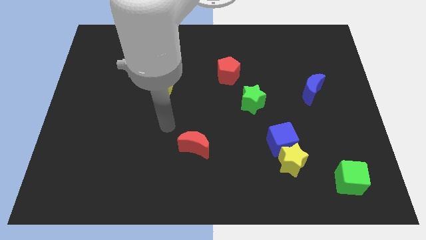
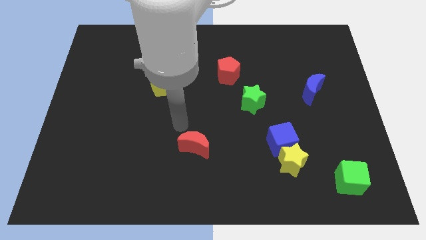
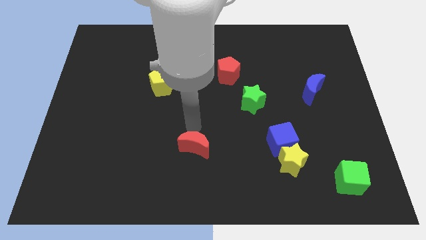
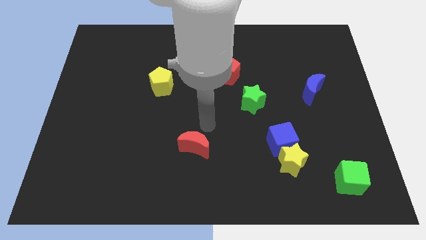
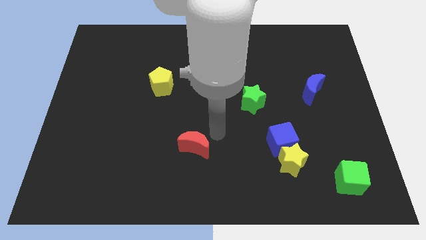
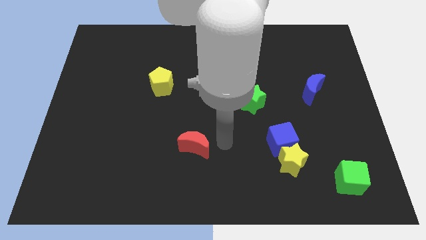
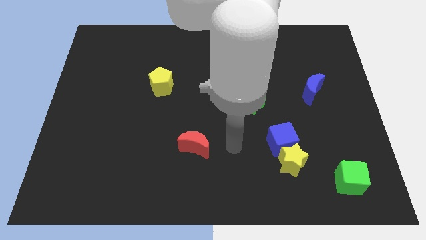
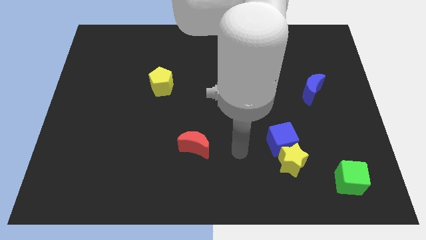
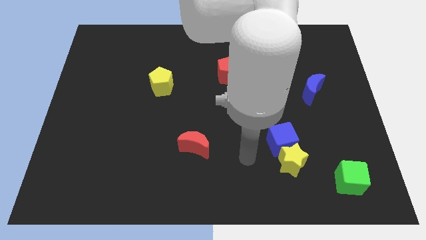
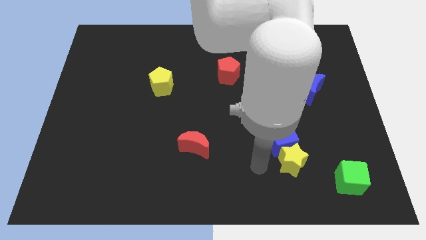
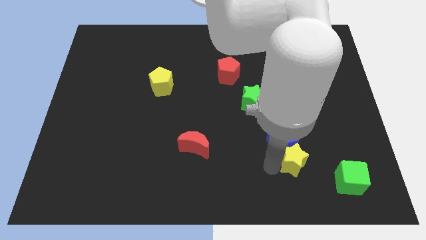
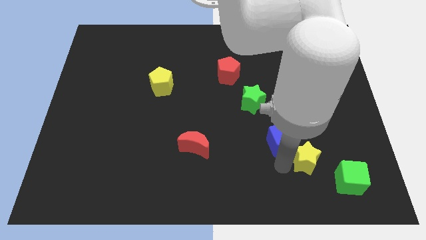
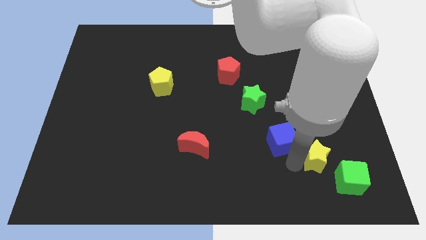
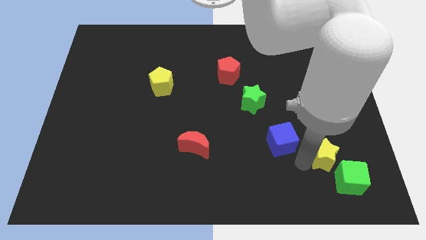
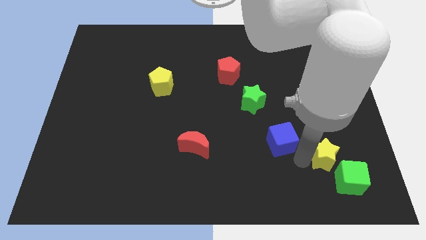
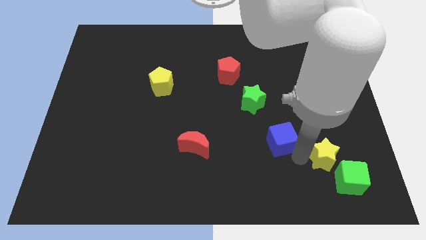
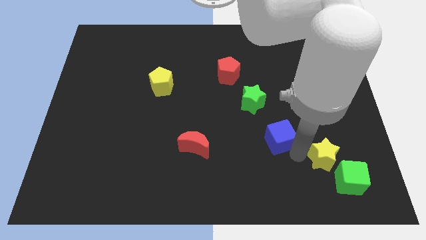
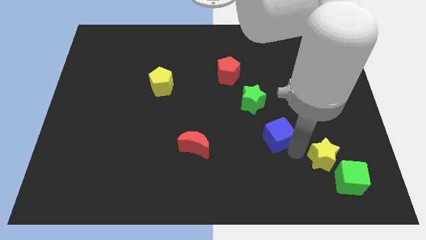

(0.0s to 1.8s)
move the blue cube away from the yellow star

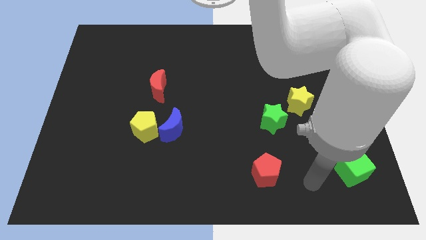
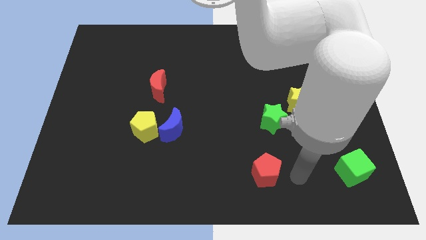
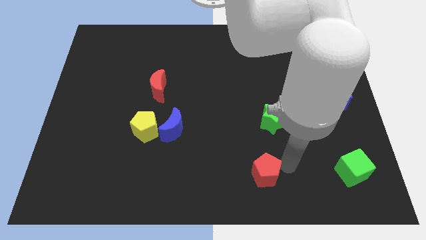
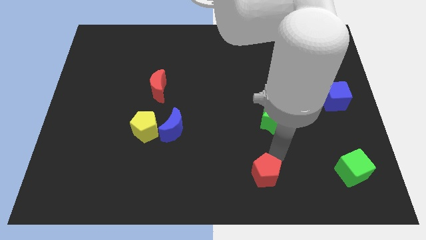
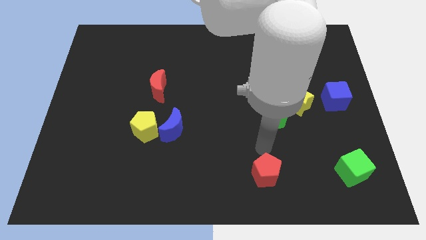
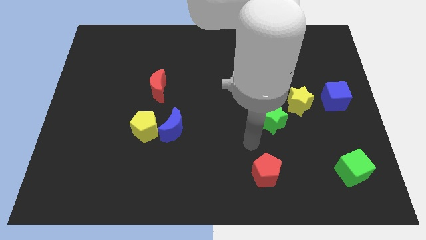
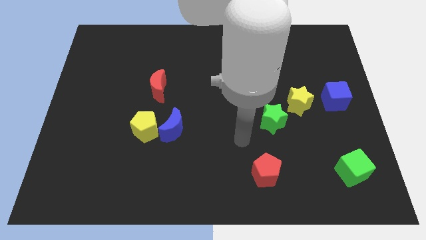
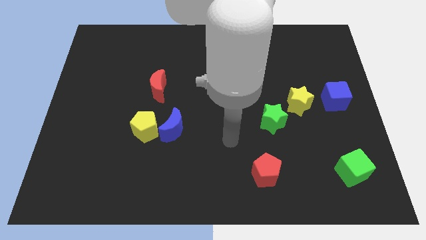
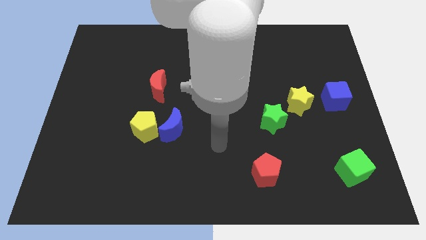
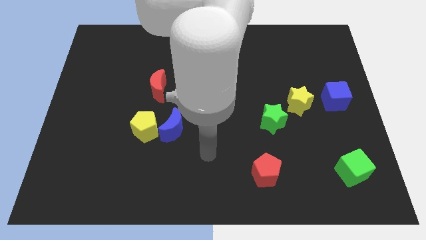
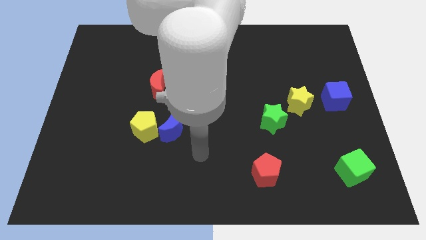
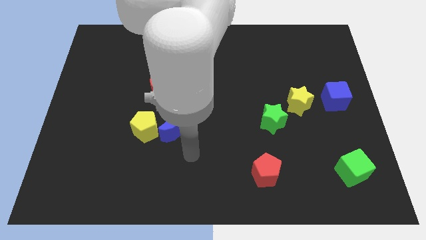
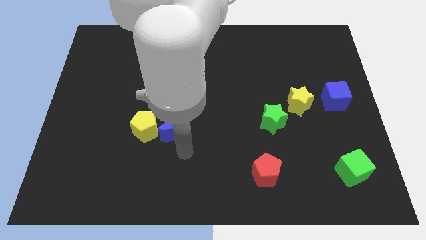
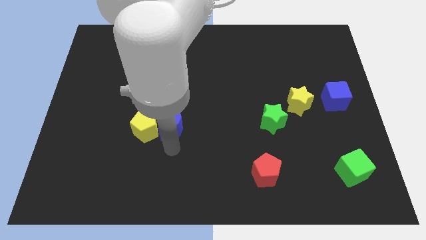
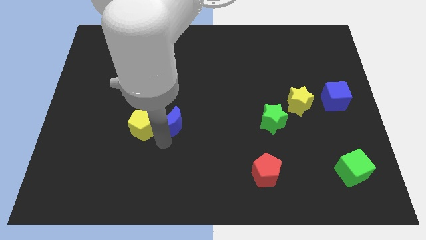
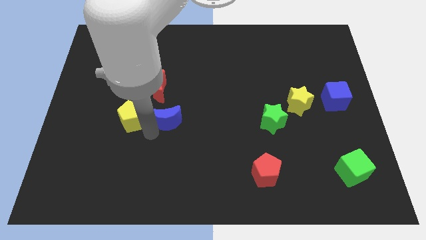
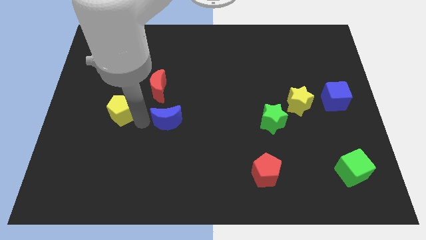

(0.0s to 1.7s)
move the blue moon away from the yellow pentagon

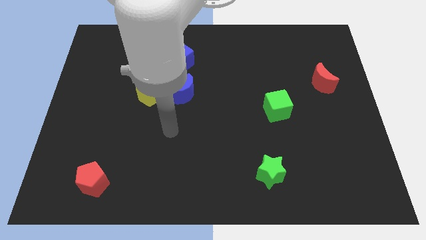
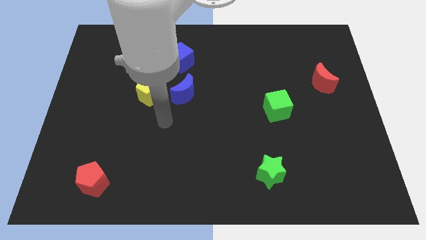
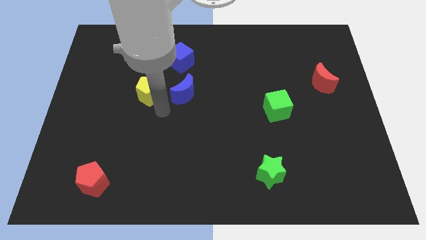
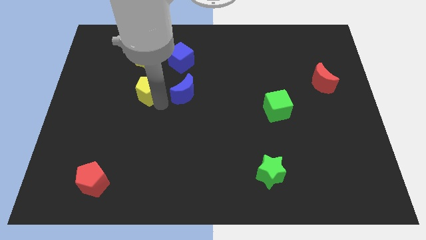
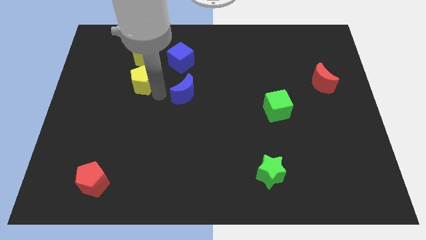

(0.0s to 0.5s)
separate the blue moon from the yellow pentagon

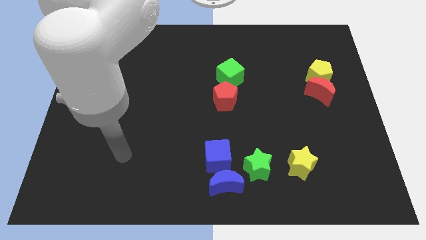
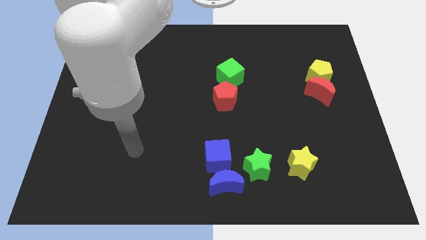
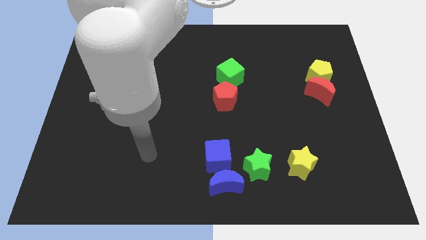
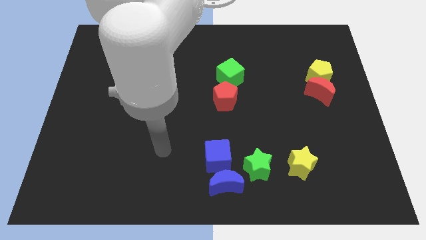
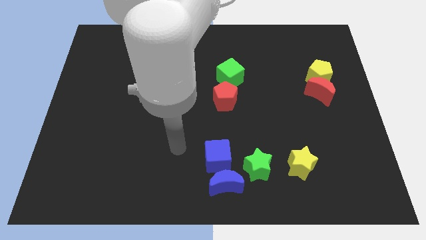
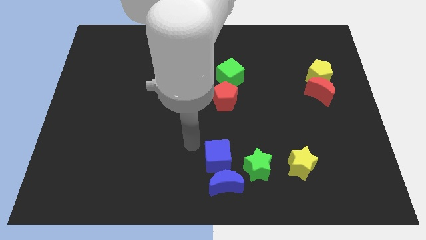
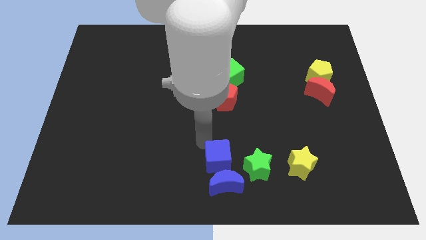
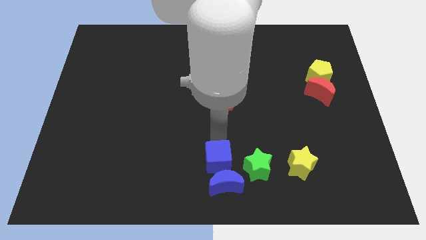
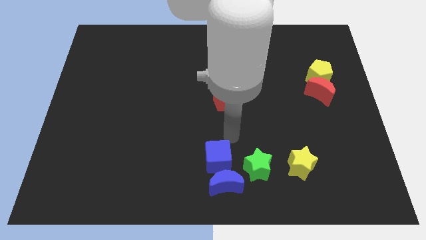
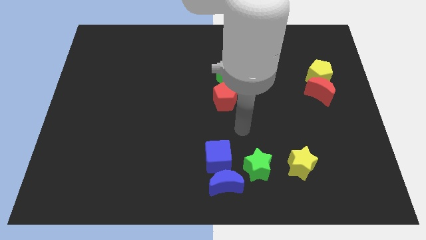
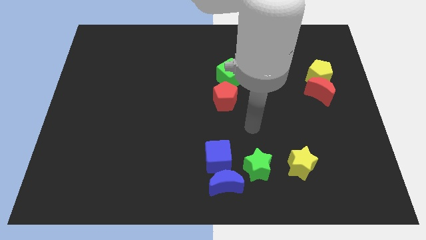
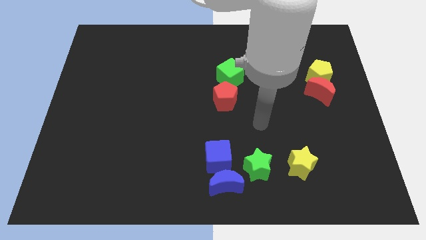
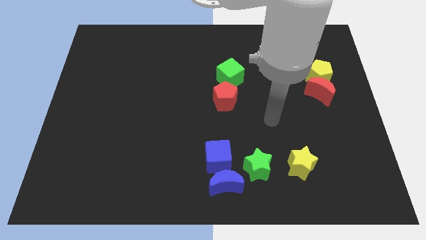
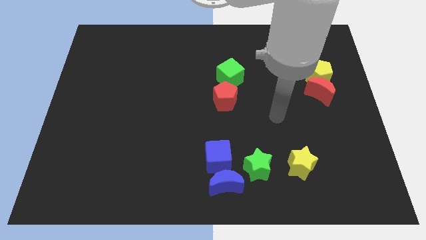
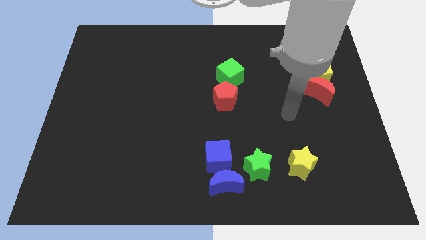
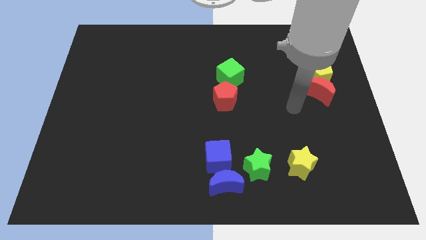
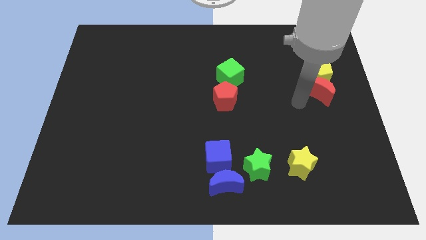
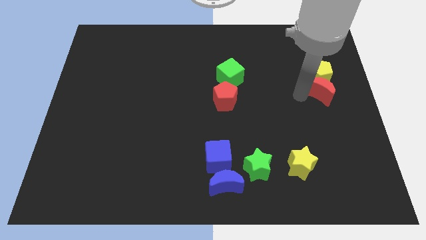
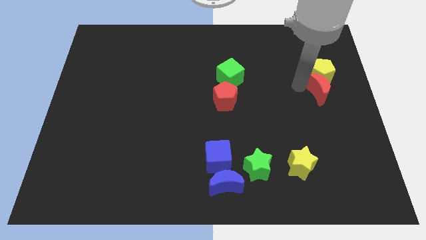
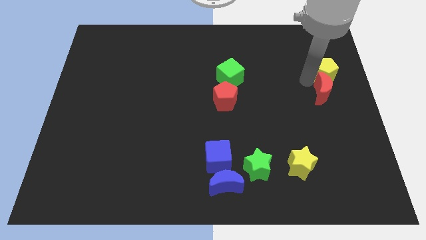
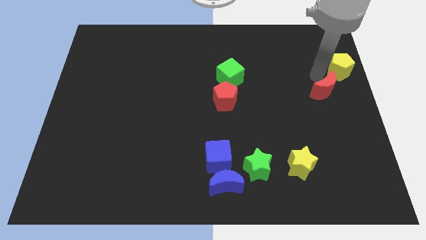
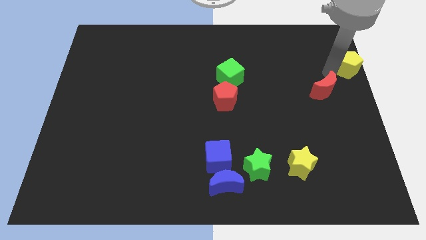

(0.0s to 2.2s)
move the red moon away from the yellow pentagon

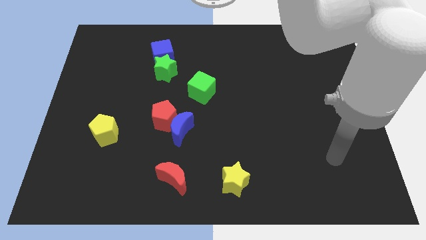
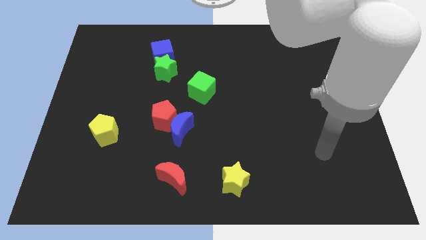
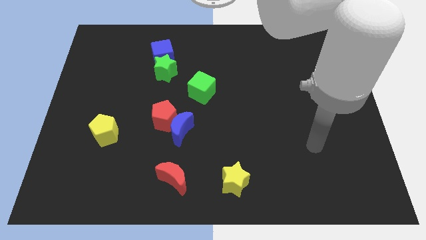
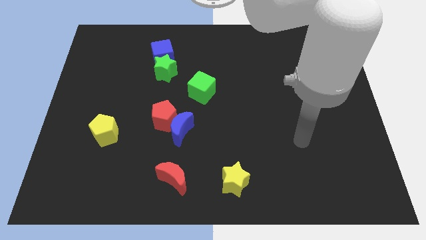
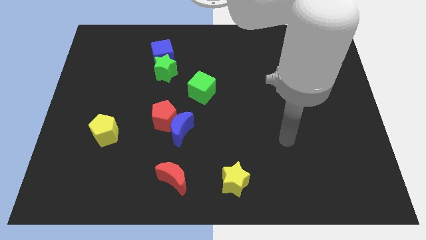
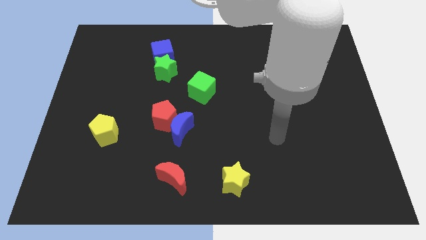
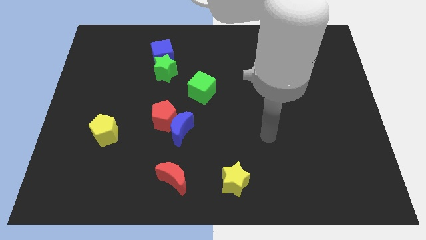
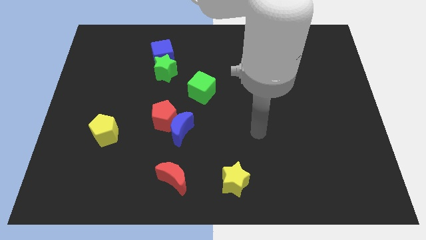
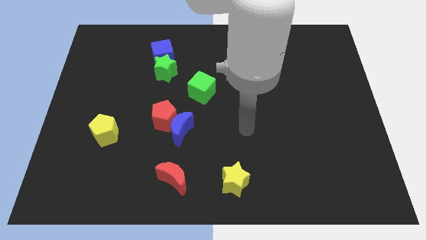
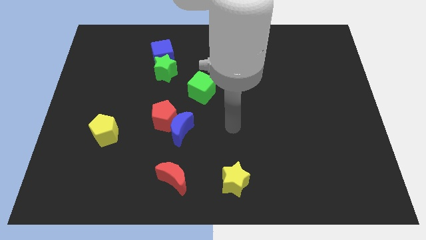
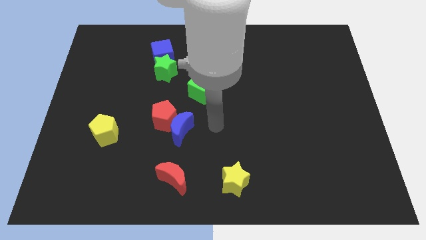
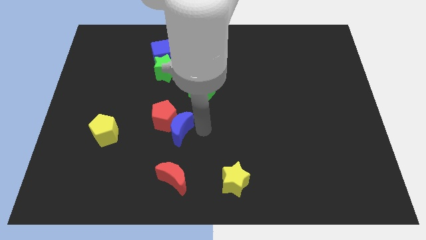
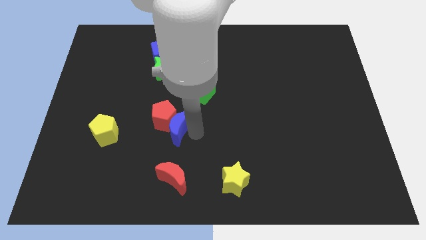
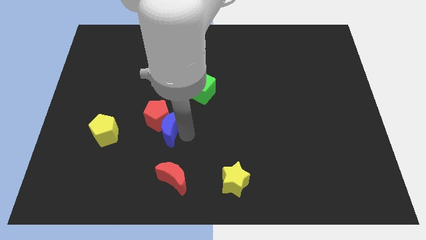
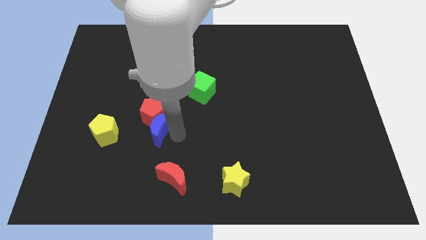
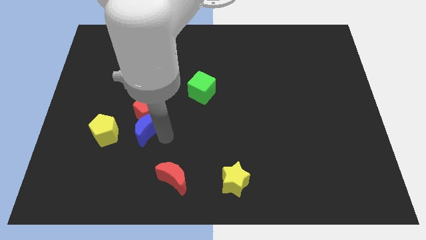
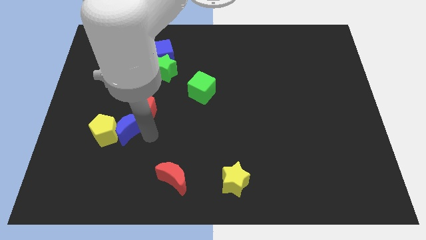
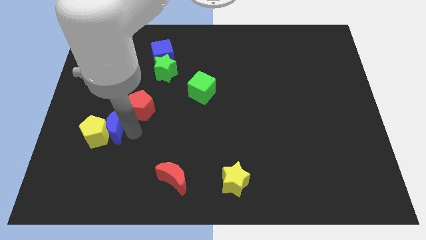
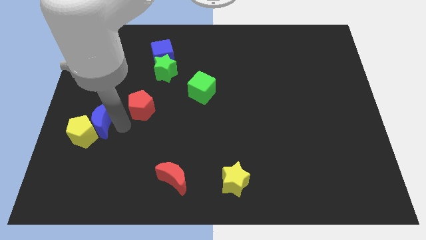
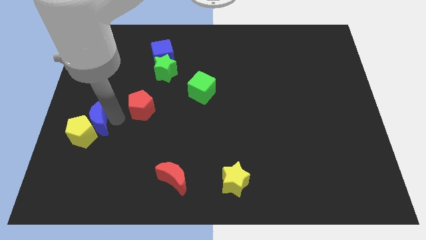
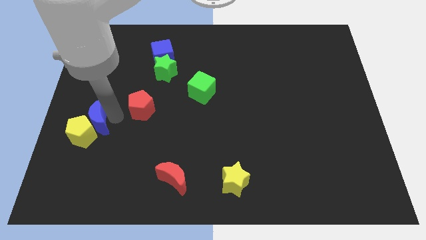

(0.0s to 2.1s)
move the red pentagon away from the blue moon

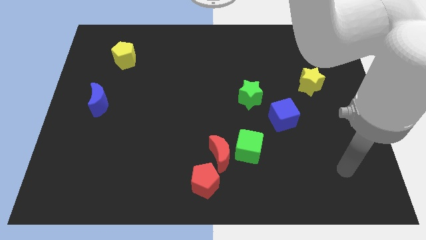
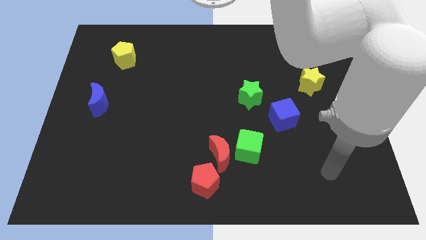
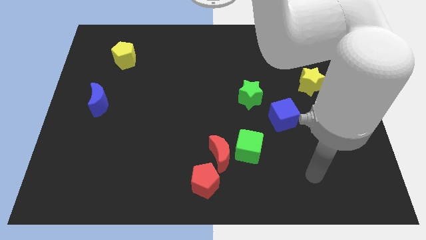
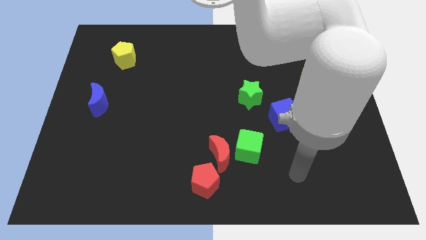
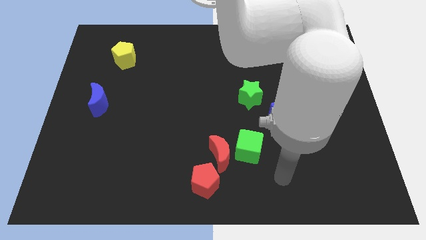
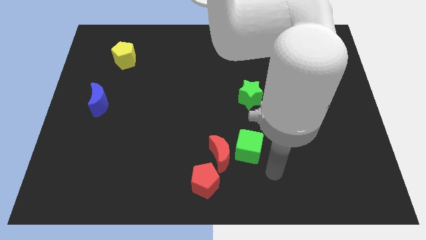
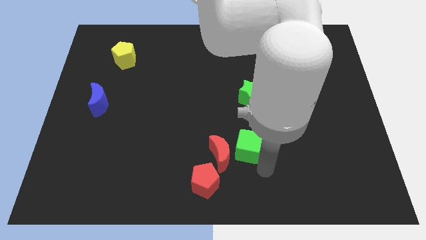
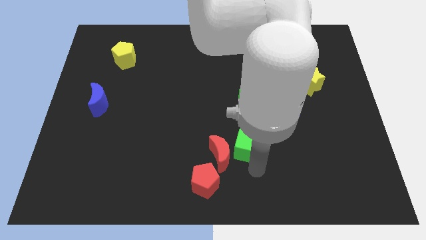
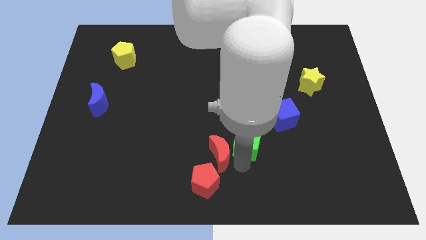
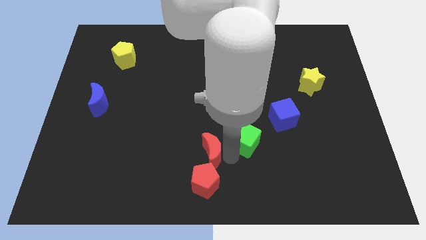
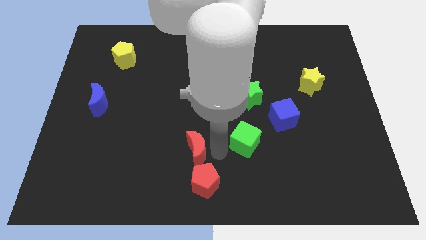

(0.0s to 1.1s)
move the green cube away from the red moon
